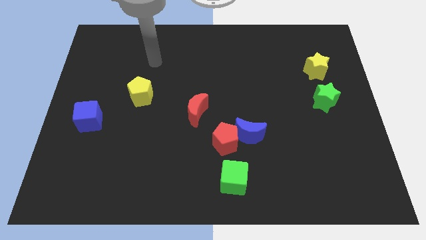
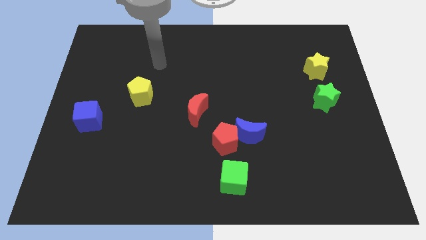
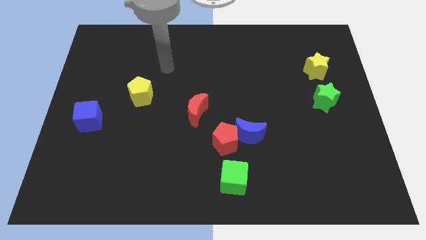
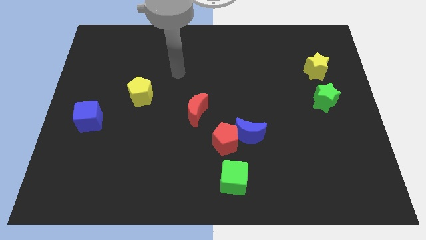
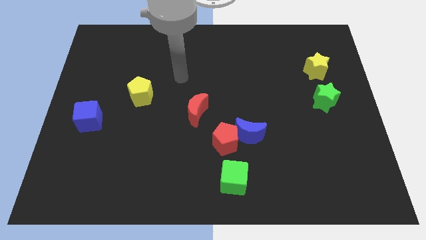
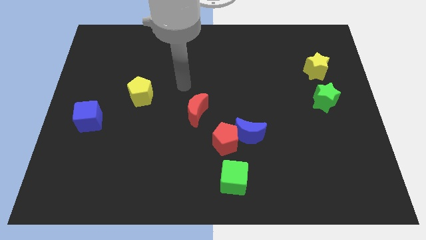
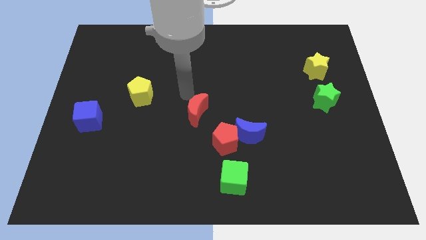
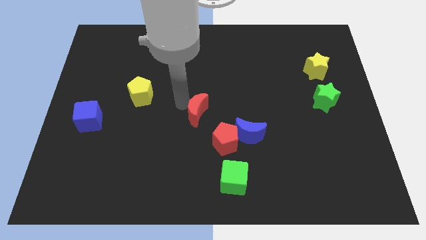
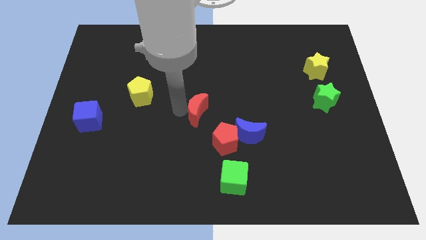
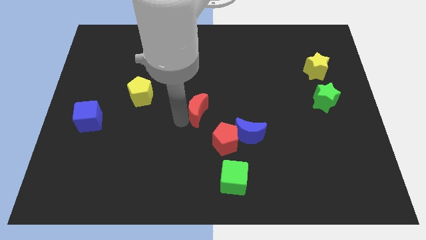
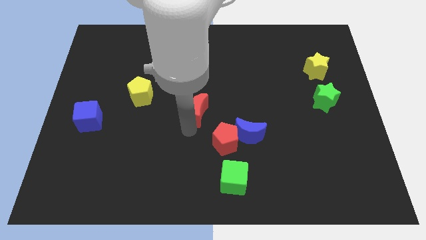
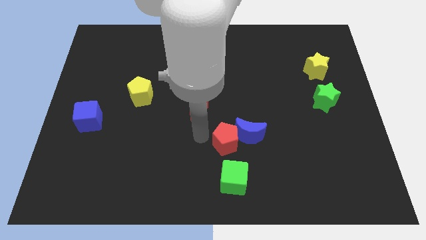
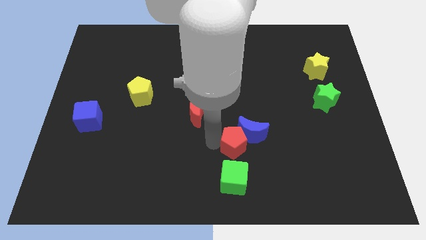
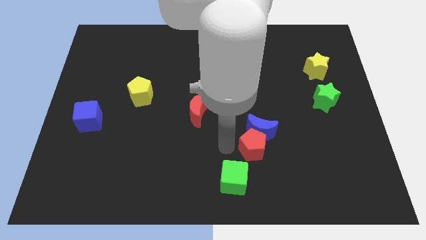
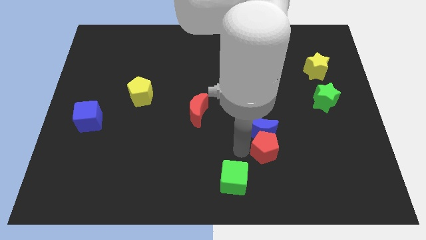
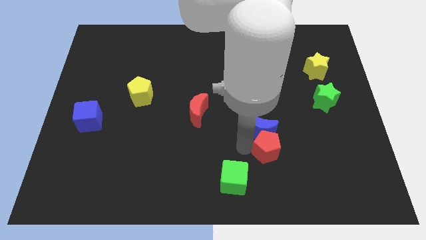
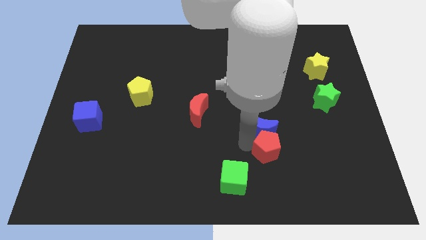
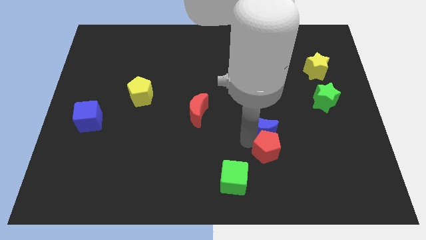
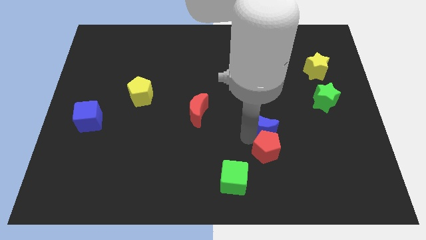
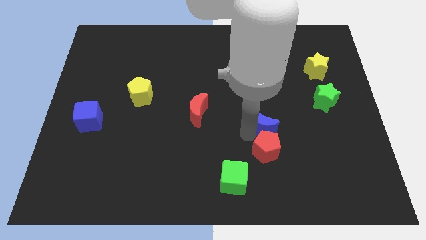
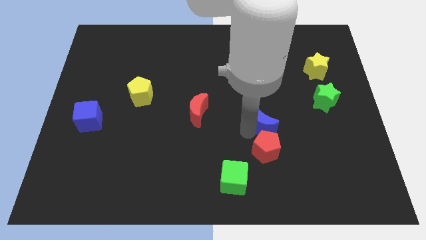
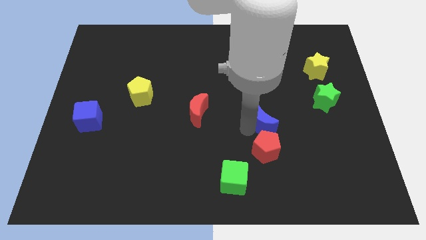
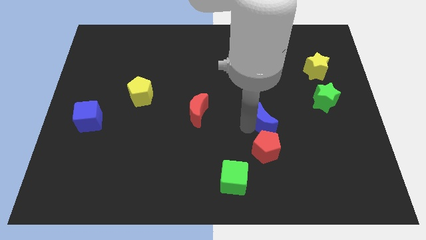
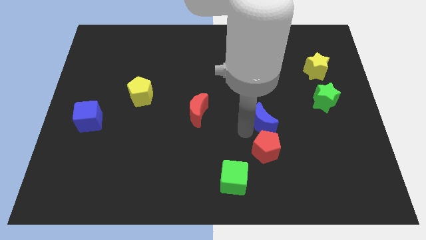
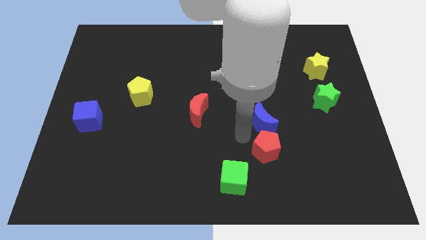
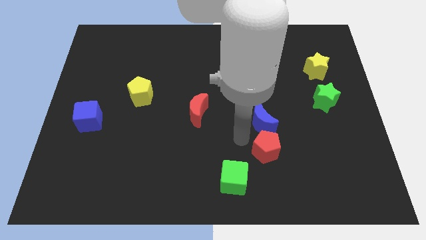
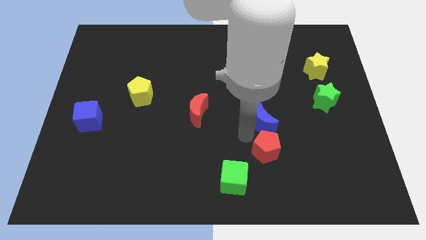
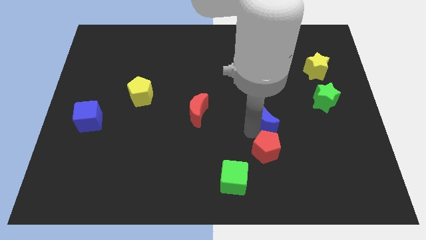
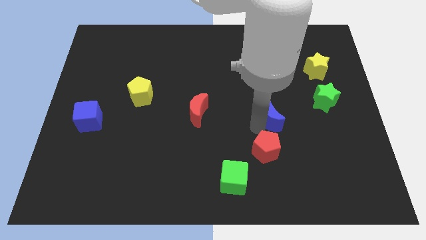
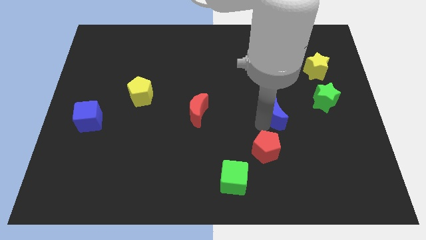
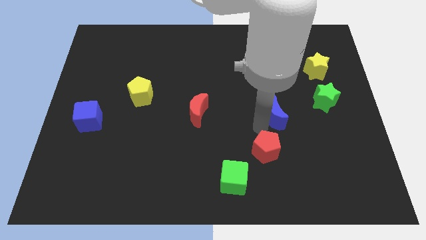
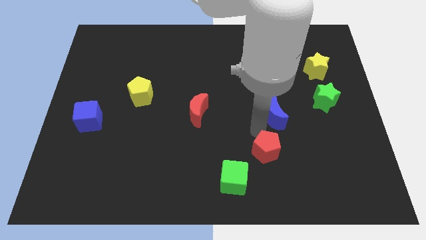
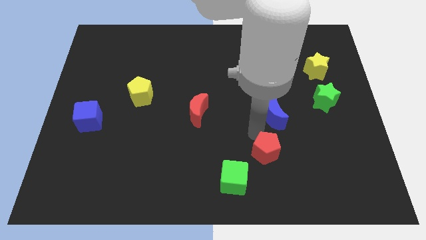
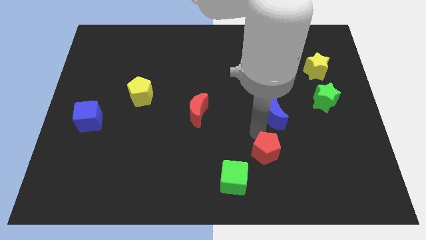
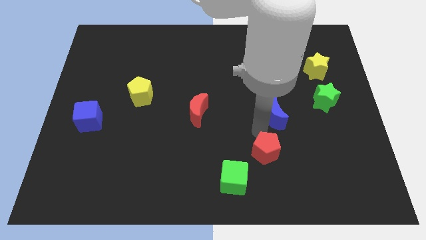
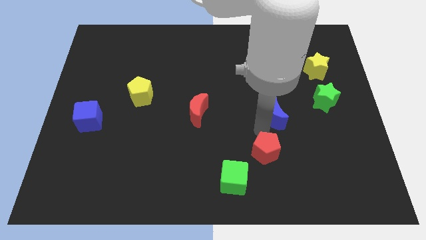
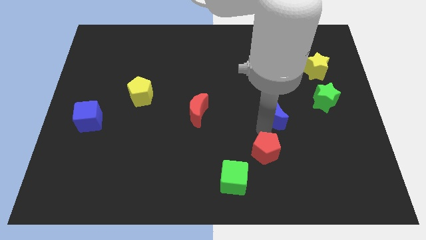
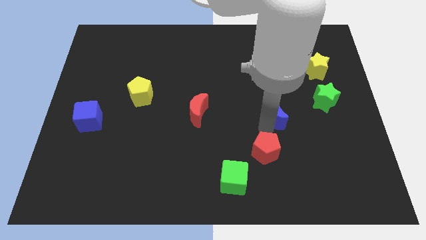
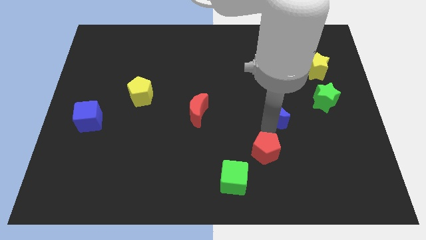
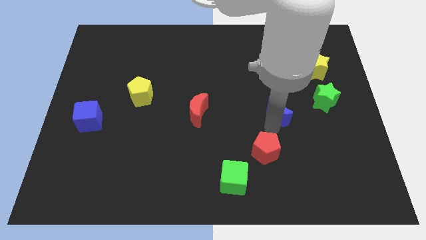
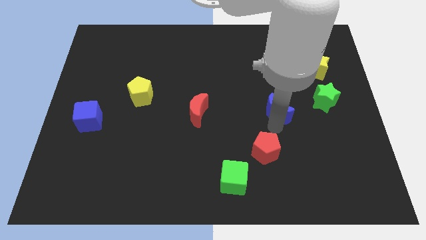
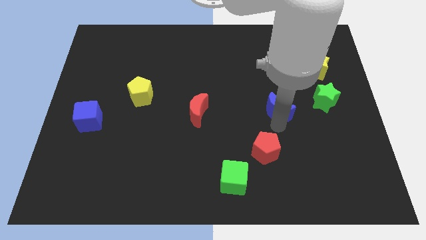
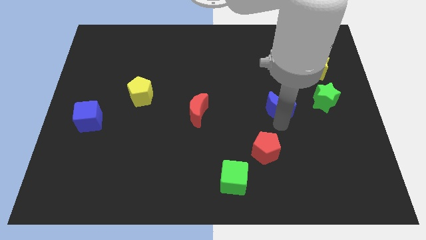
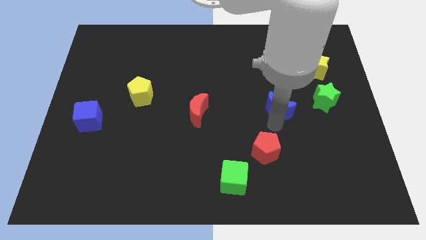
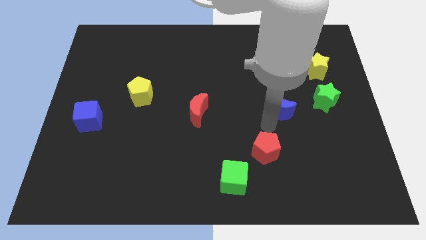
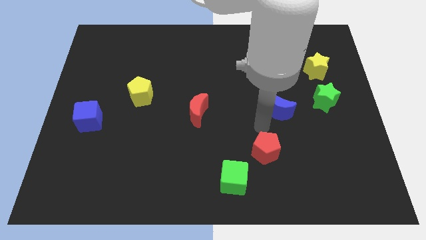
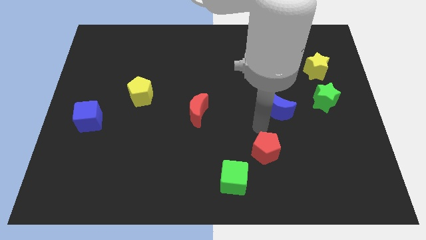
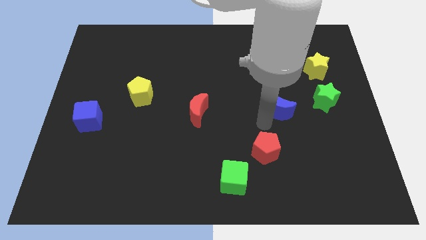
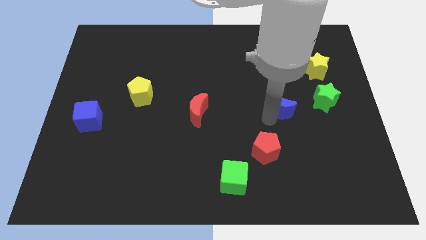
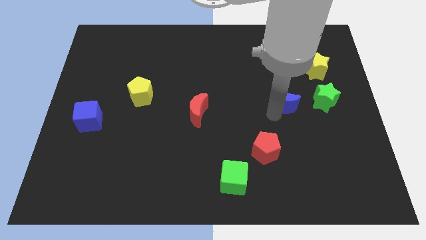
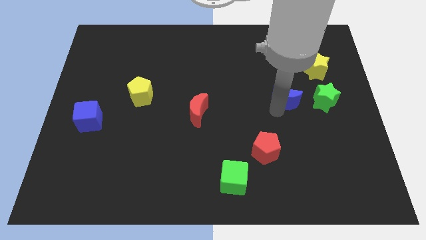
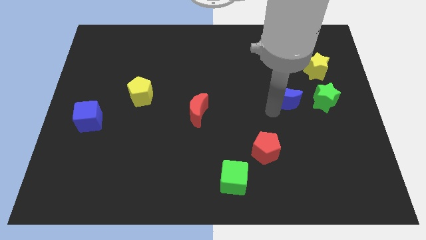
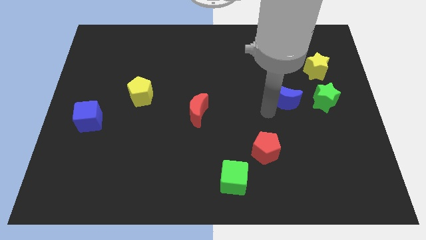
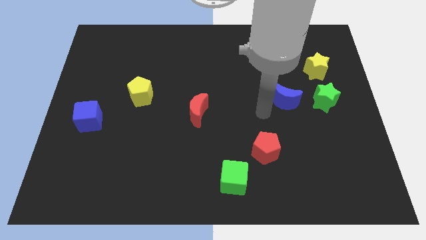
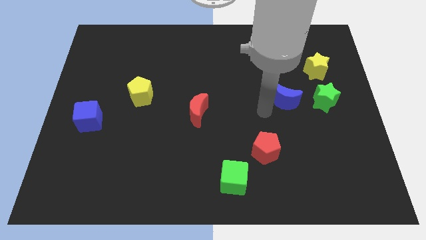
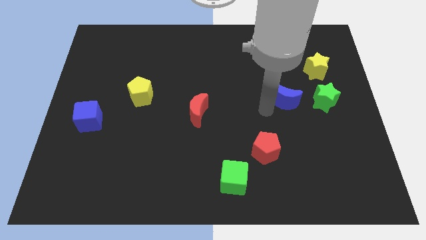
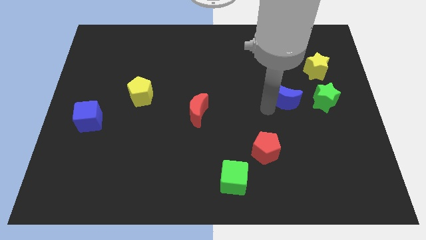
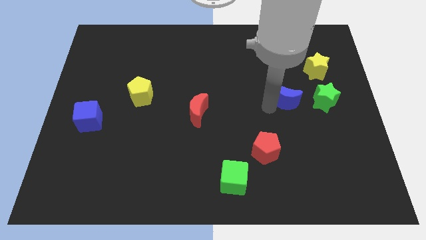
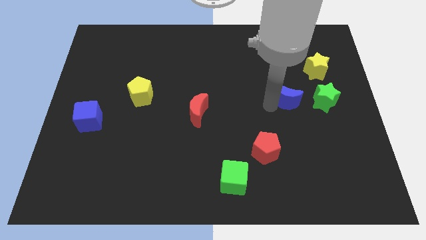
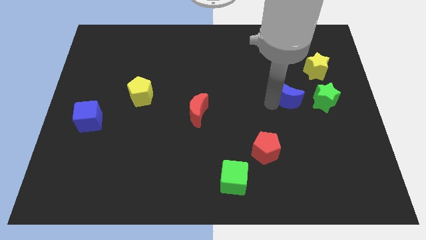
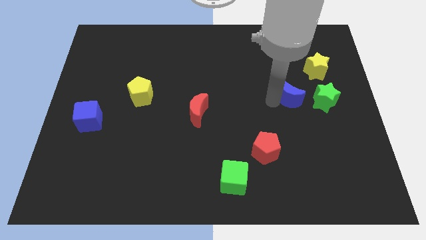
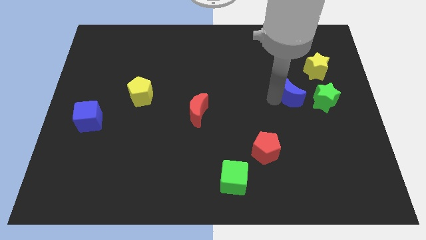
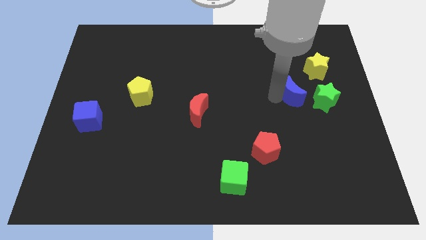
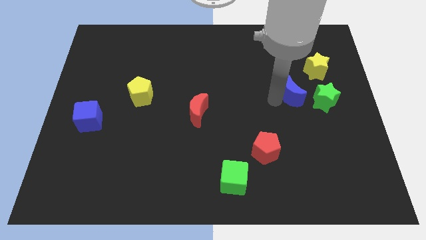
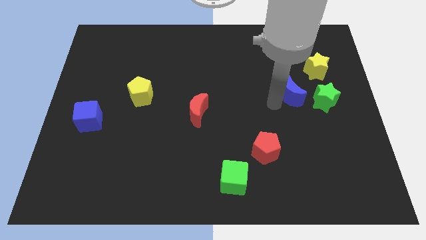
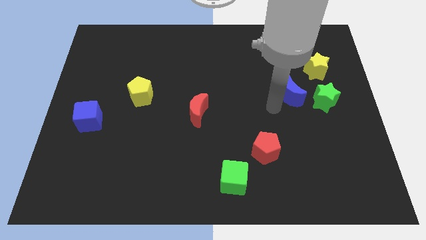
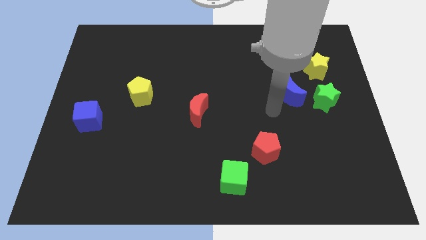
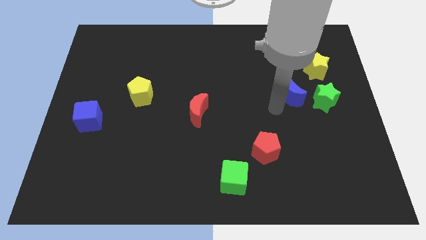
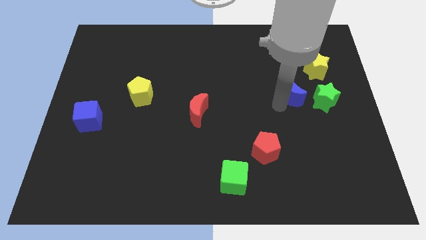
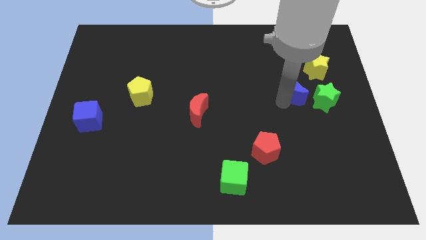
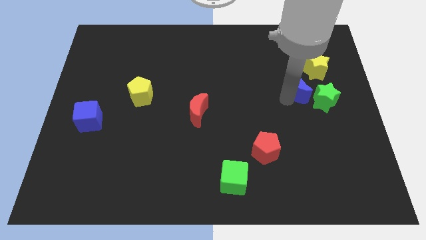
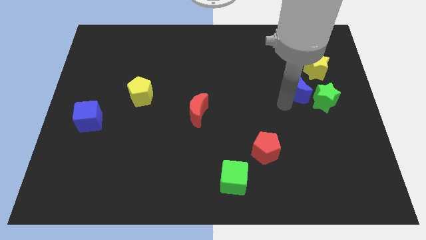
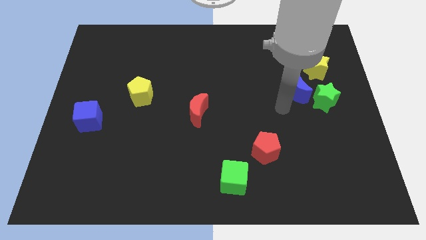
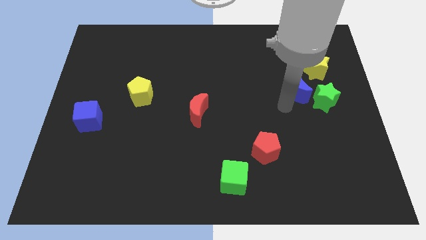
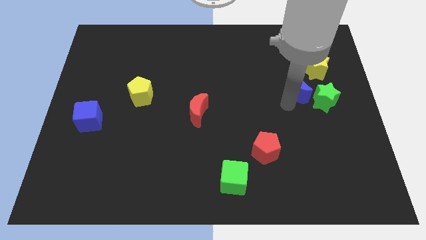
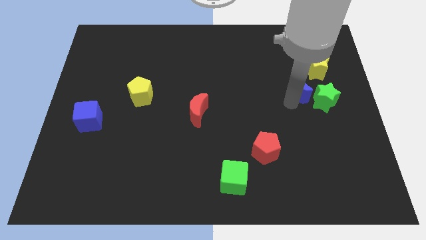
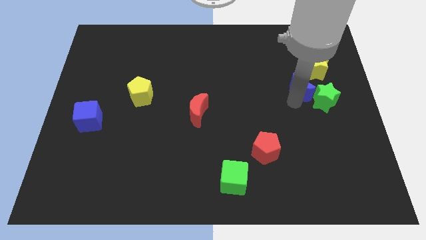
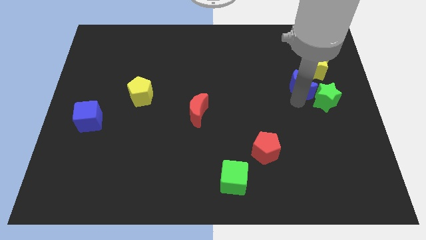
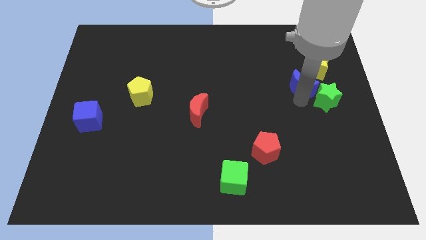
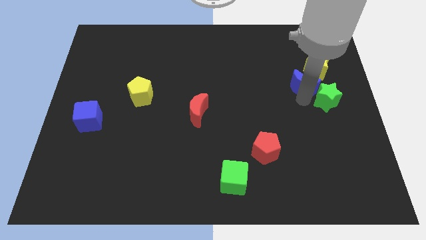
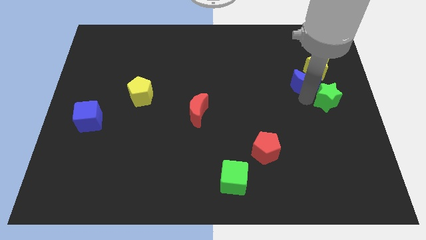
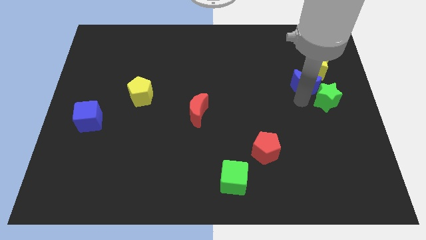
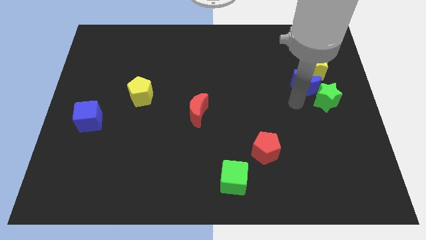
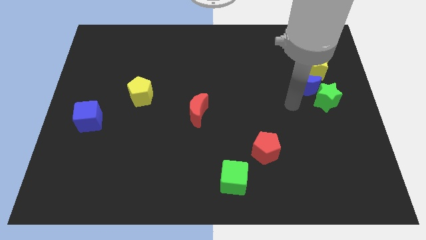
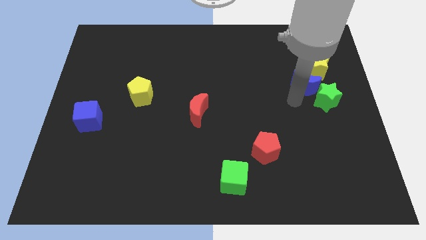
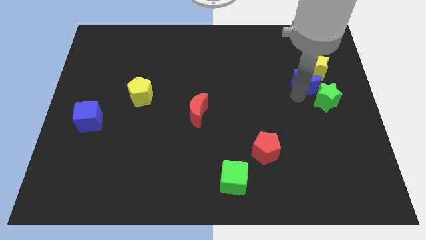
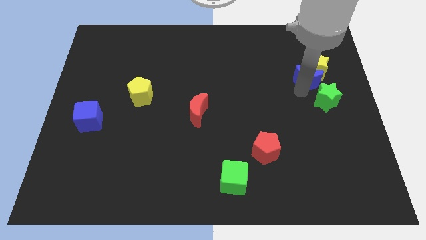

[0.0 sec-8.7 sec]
move the blue moon to the yellow star
